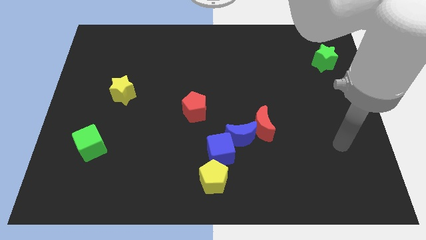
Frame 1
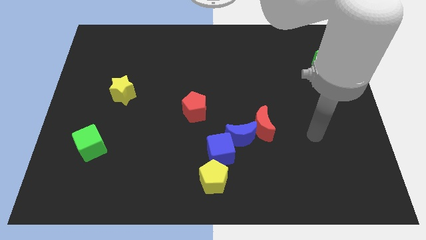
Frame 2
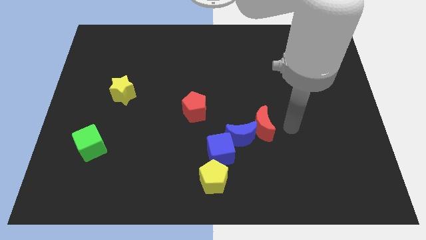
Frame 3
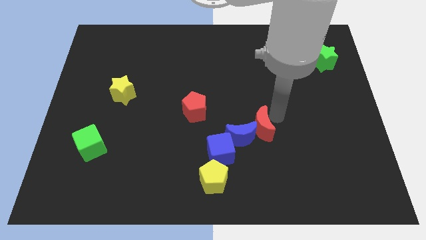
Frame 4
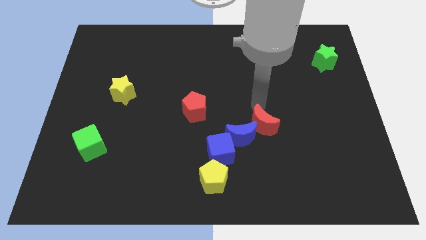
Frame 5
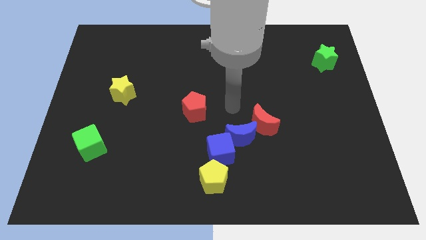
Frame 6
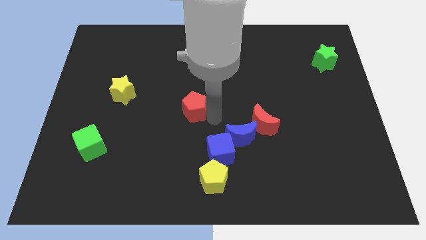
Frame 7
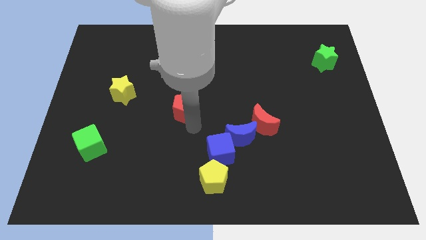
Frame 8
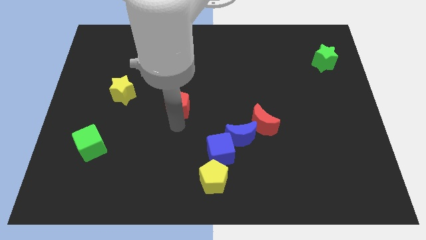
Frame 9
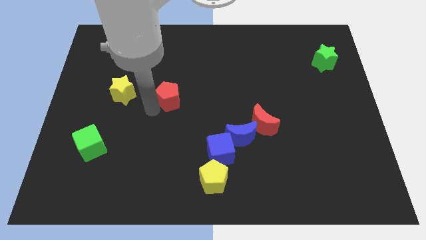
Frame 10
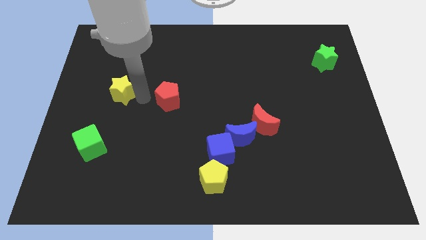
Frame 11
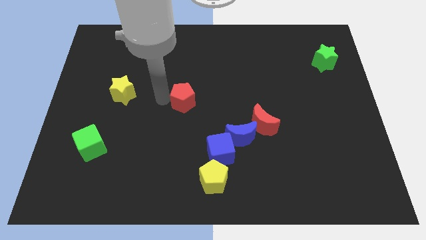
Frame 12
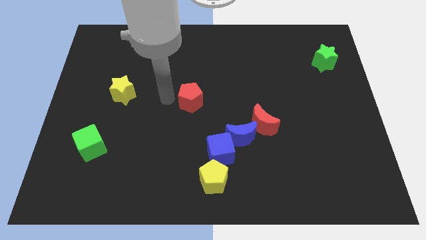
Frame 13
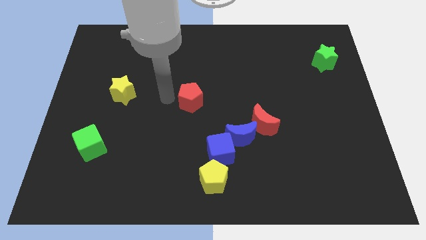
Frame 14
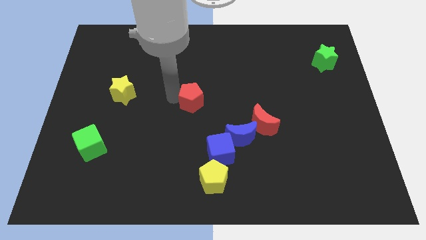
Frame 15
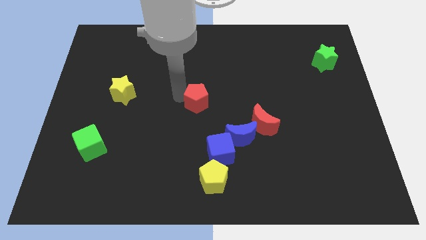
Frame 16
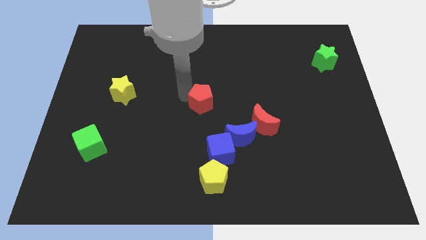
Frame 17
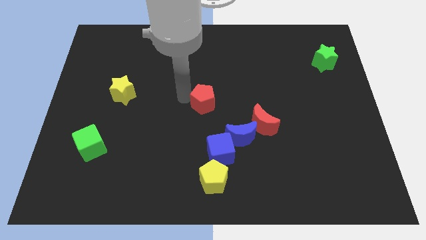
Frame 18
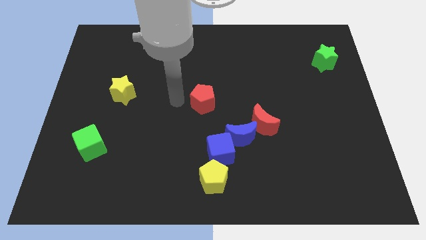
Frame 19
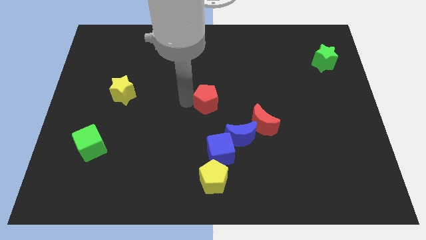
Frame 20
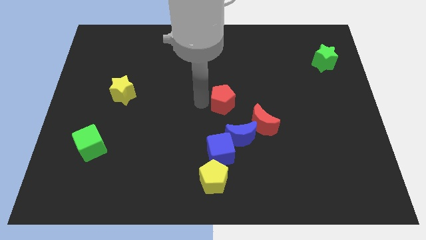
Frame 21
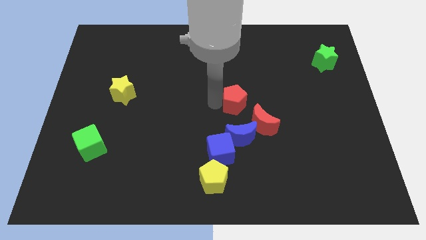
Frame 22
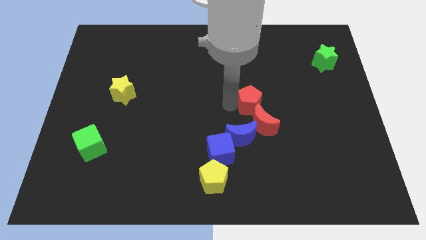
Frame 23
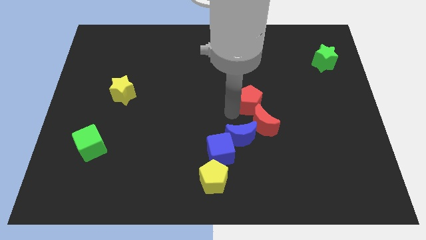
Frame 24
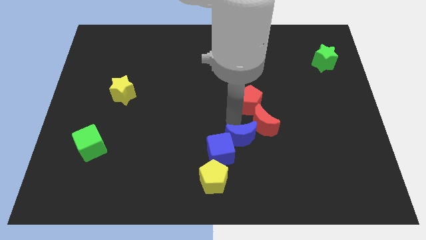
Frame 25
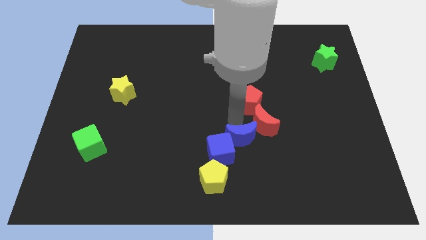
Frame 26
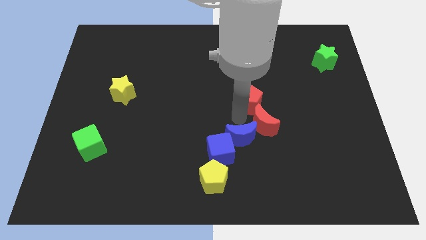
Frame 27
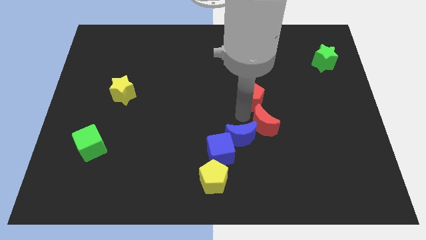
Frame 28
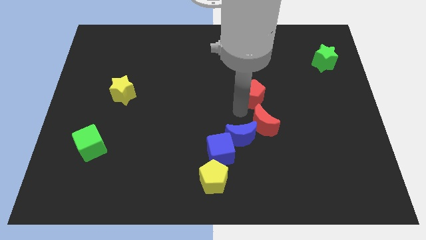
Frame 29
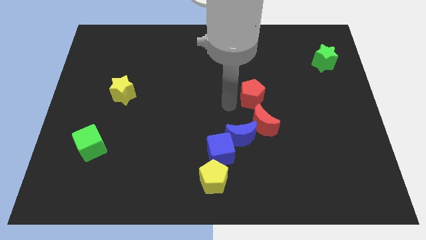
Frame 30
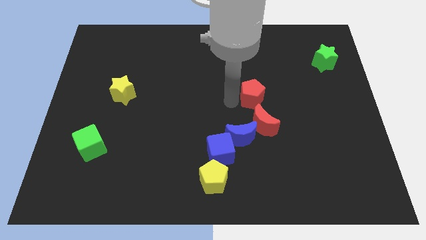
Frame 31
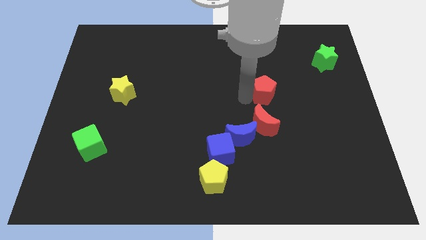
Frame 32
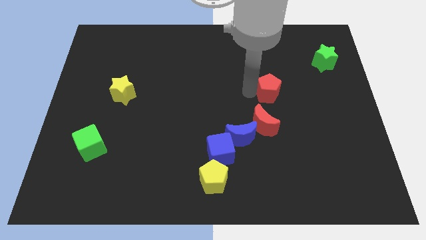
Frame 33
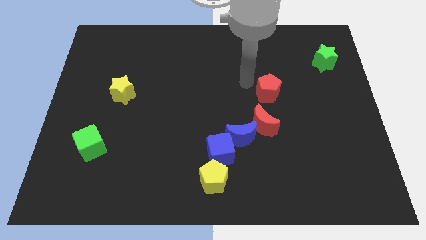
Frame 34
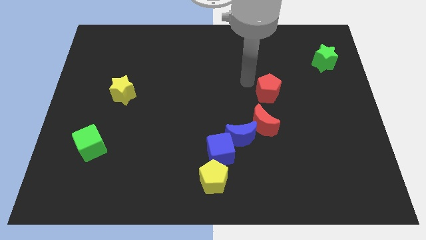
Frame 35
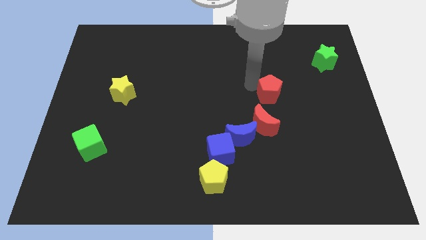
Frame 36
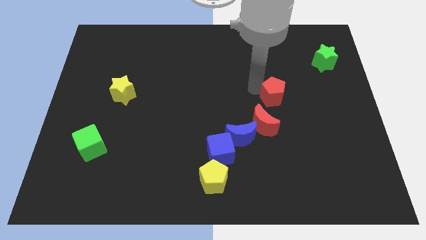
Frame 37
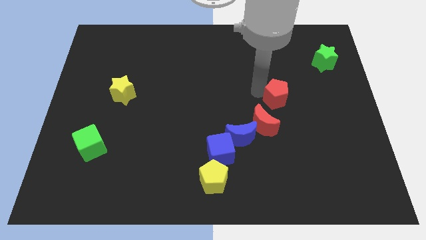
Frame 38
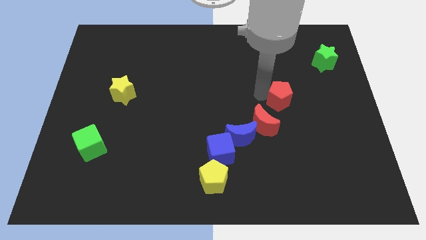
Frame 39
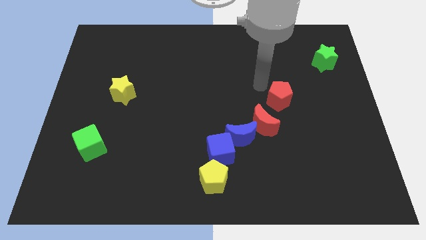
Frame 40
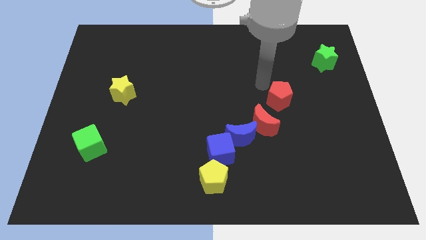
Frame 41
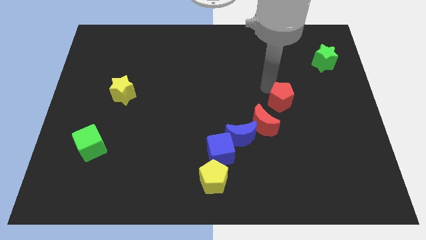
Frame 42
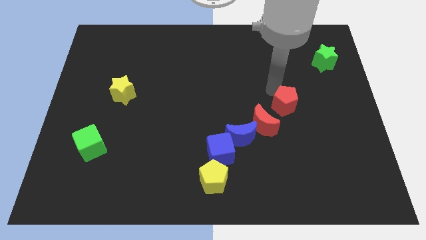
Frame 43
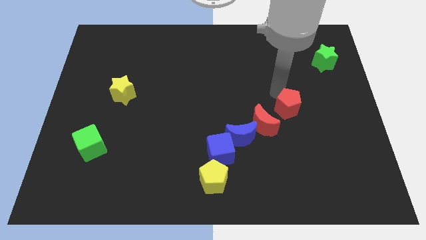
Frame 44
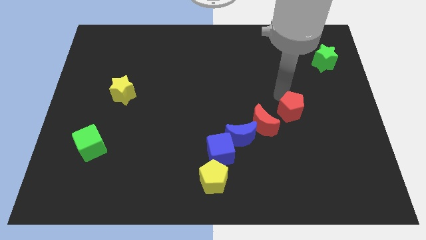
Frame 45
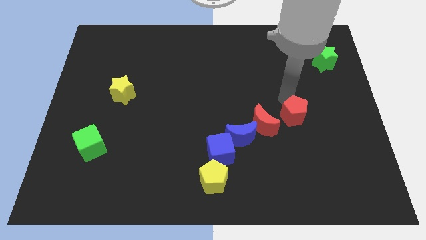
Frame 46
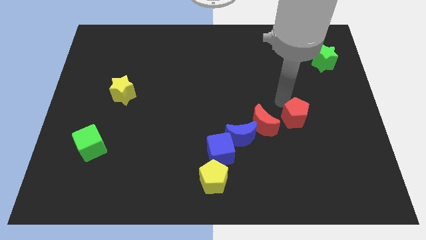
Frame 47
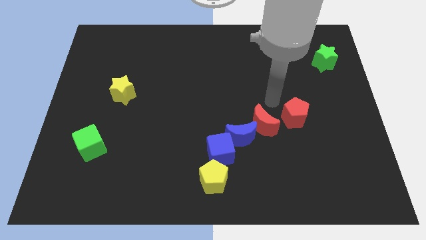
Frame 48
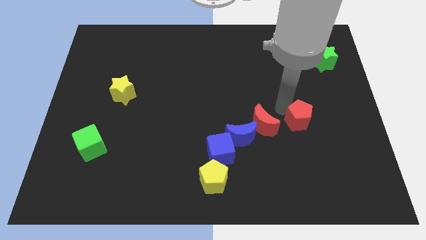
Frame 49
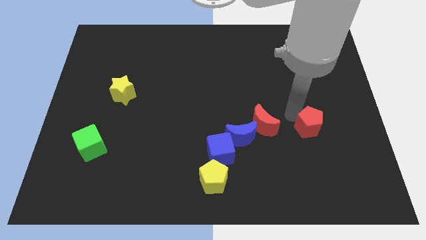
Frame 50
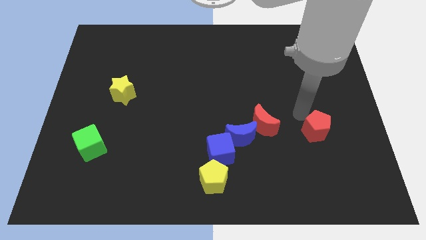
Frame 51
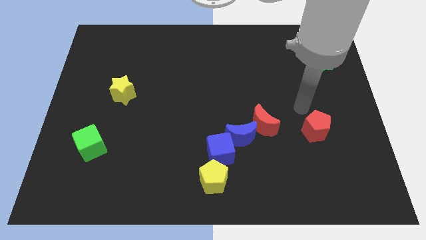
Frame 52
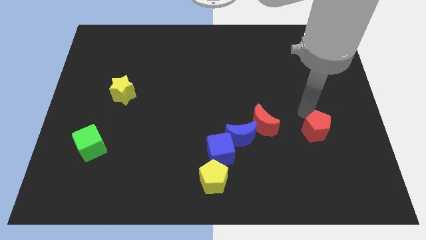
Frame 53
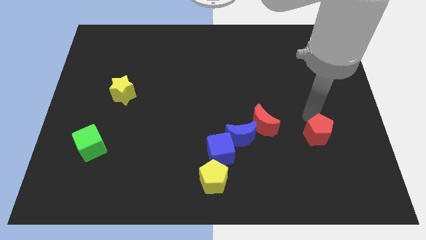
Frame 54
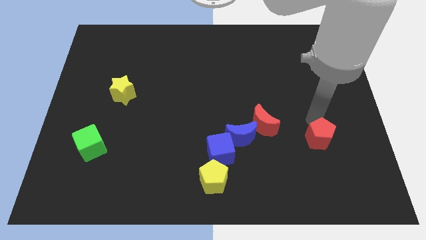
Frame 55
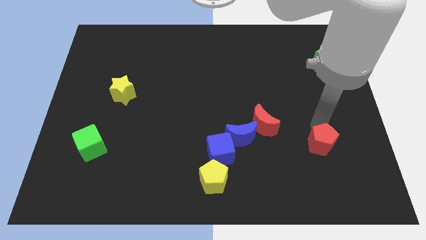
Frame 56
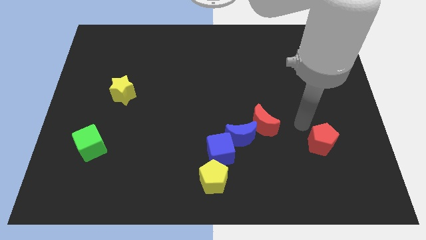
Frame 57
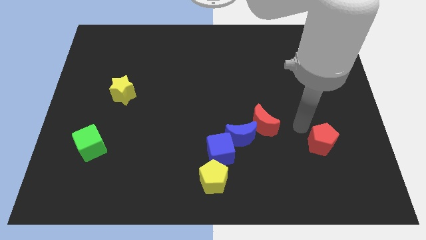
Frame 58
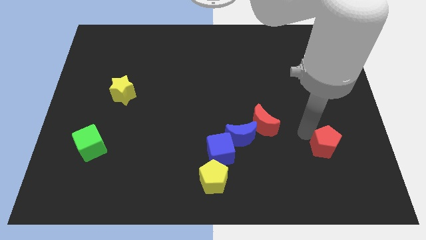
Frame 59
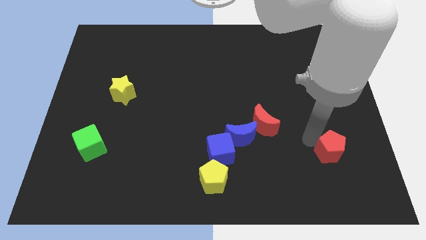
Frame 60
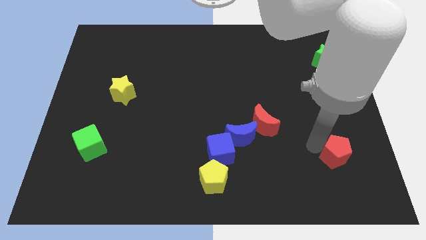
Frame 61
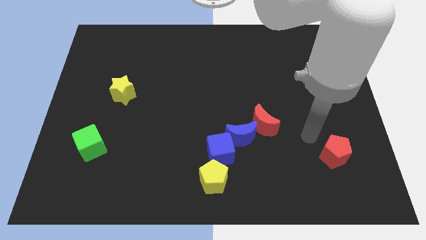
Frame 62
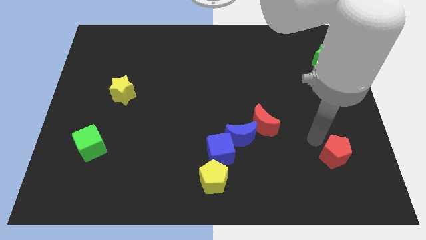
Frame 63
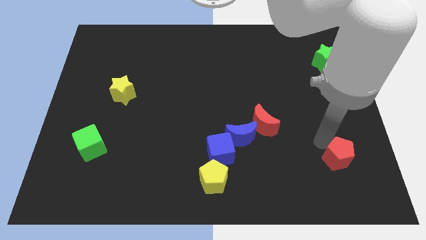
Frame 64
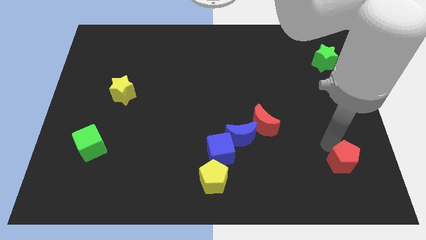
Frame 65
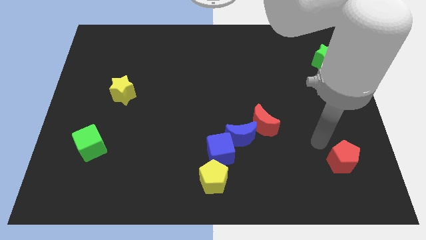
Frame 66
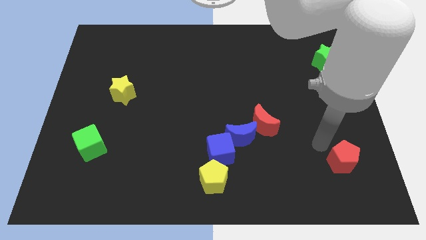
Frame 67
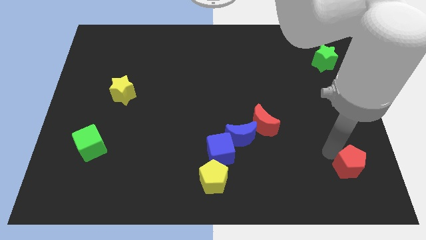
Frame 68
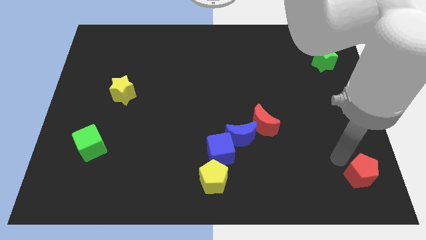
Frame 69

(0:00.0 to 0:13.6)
slide the red pentagon to the lower right corner
